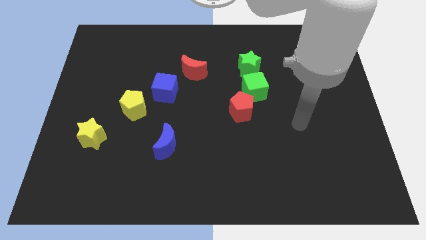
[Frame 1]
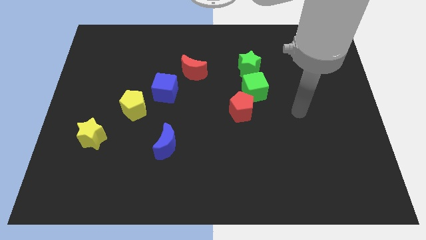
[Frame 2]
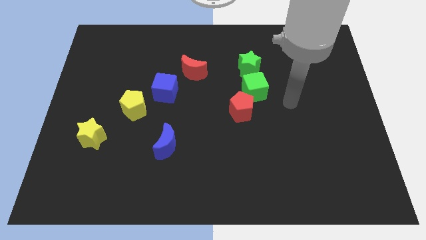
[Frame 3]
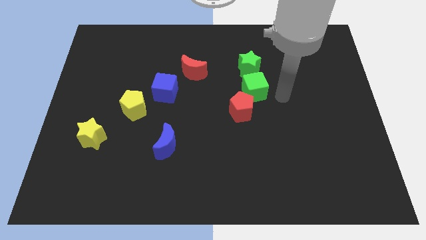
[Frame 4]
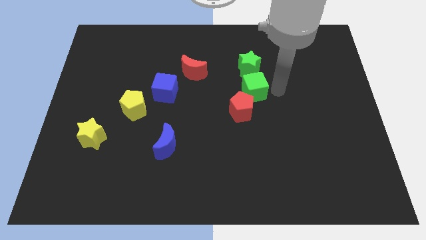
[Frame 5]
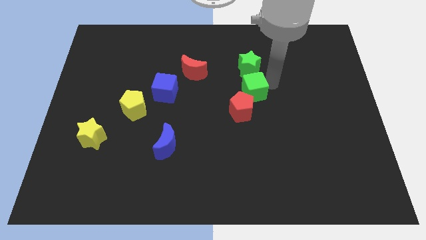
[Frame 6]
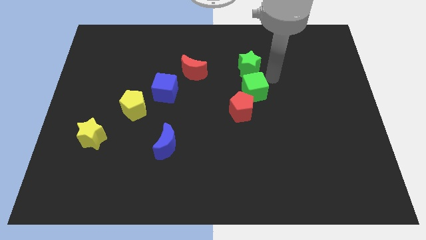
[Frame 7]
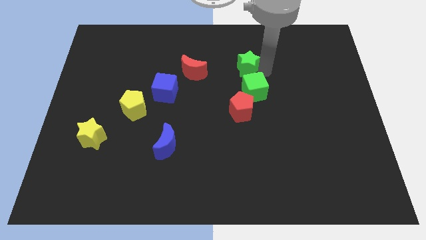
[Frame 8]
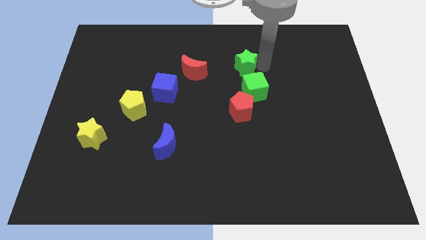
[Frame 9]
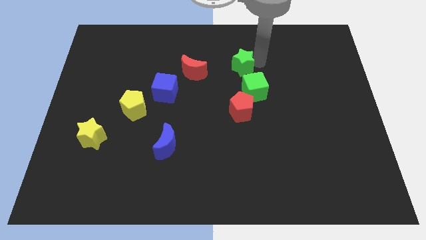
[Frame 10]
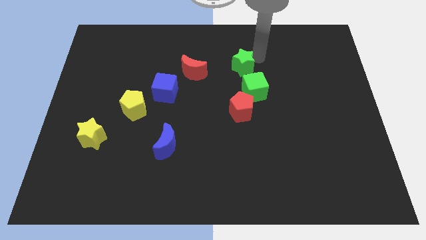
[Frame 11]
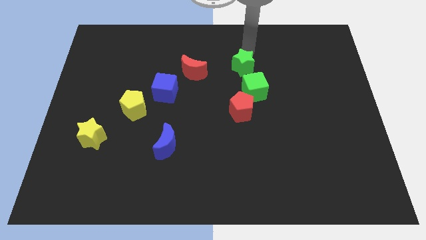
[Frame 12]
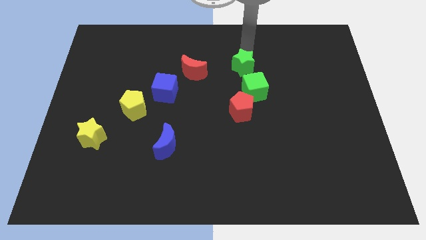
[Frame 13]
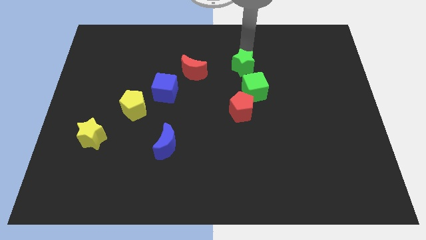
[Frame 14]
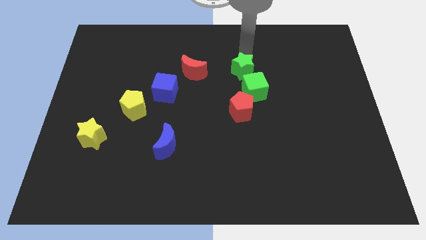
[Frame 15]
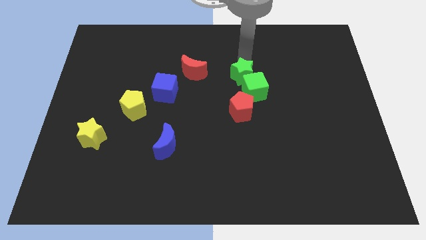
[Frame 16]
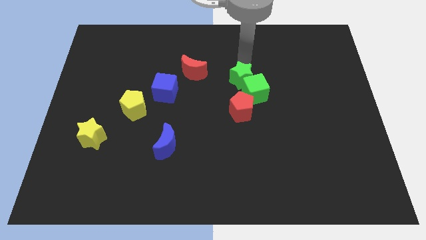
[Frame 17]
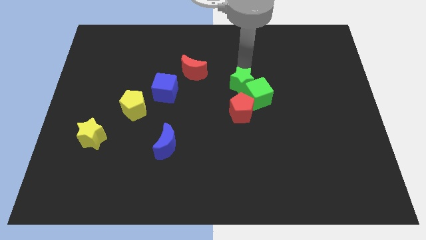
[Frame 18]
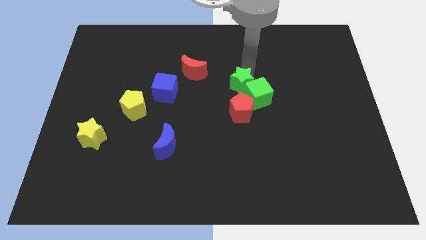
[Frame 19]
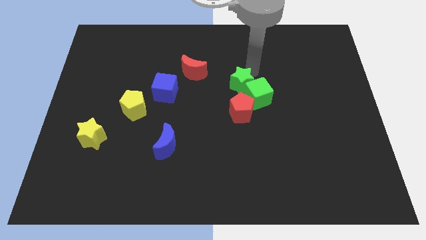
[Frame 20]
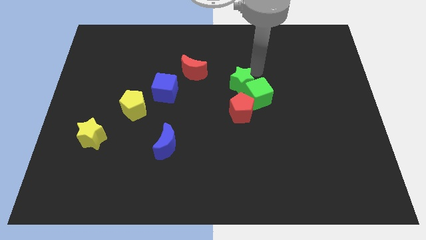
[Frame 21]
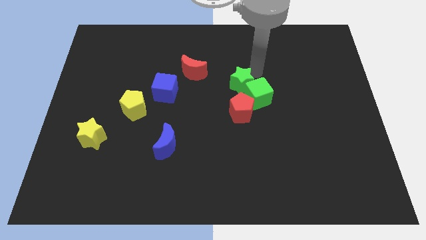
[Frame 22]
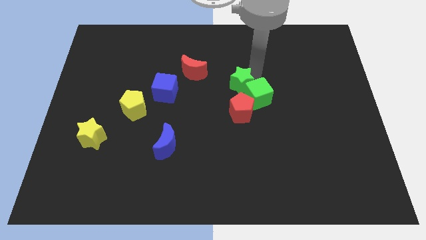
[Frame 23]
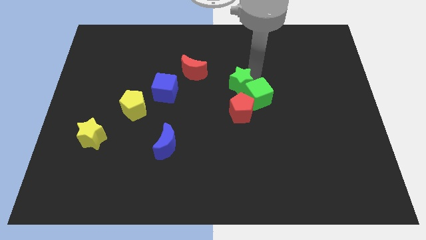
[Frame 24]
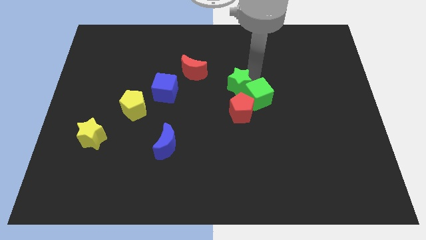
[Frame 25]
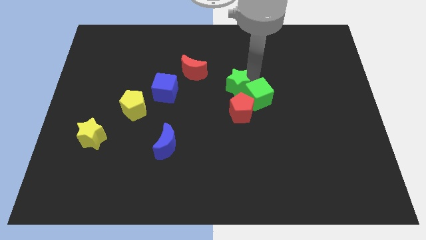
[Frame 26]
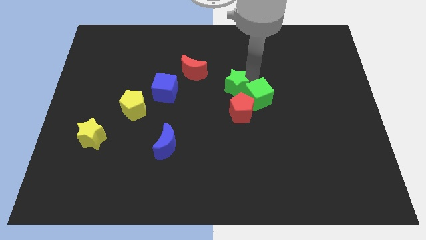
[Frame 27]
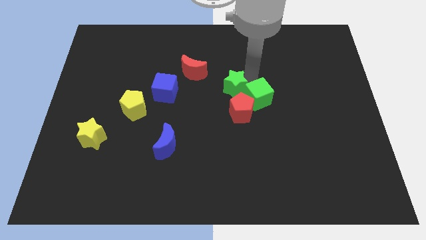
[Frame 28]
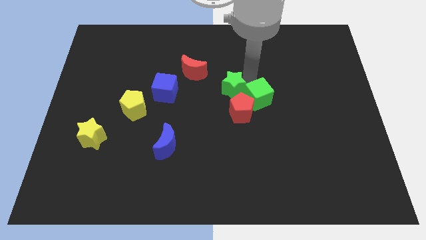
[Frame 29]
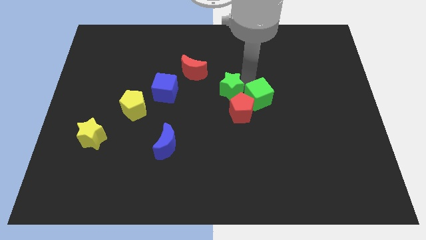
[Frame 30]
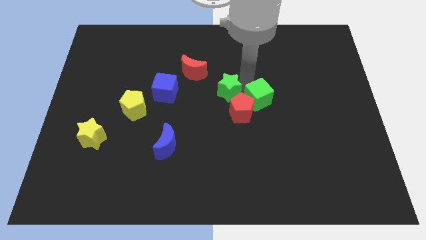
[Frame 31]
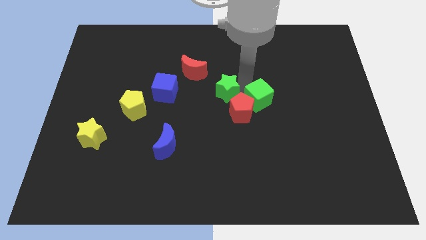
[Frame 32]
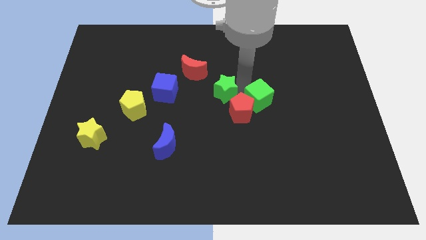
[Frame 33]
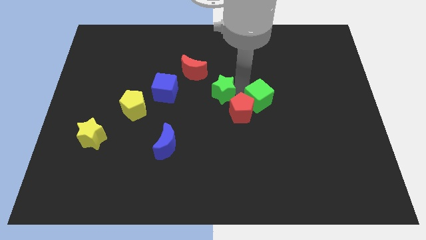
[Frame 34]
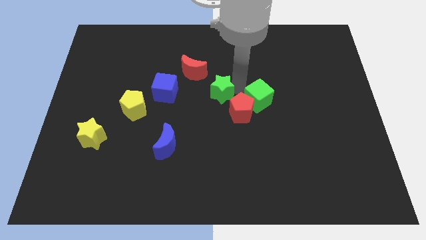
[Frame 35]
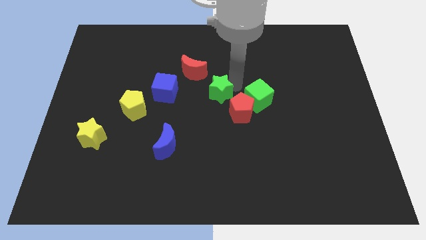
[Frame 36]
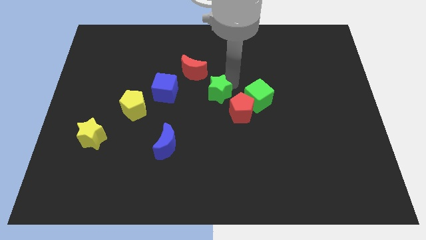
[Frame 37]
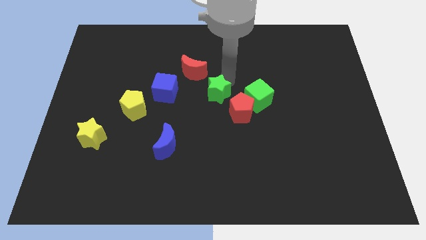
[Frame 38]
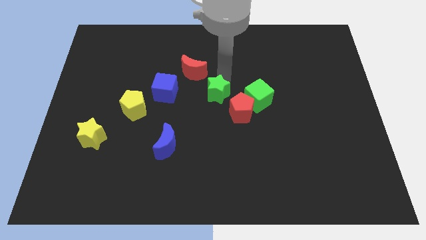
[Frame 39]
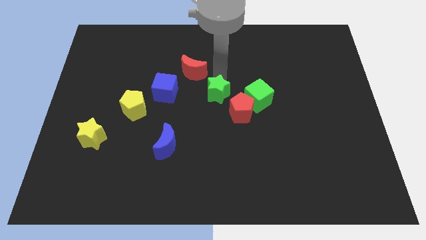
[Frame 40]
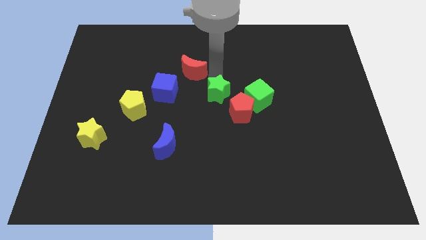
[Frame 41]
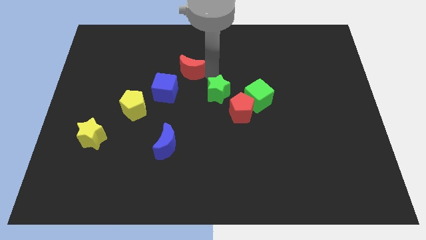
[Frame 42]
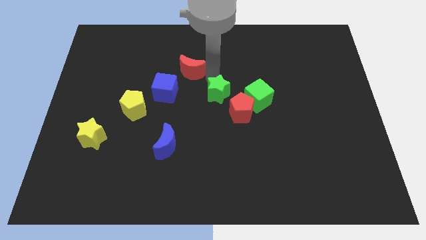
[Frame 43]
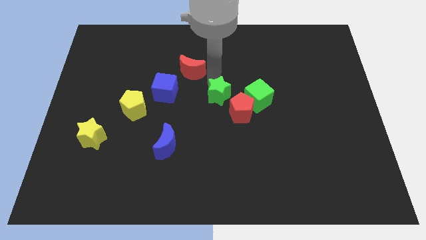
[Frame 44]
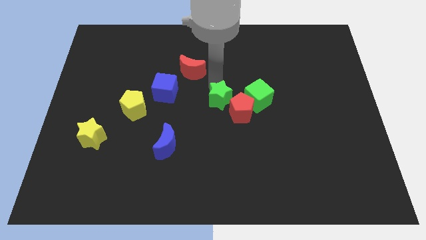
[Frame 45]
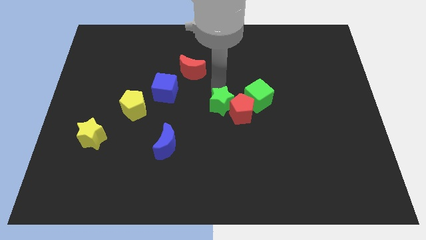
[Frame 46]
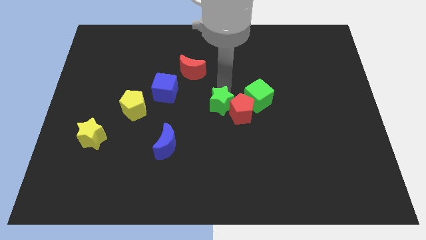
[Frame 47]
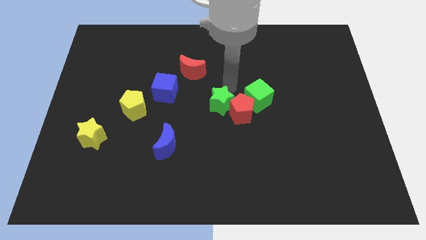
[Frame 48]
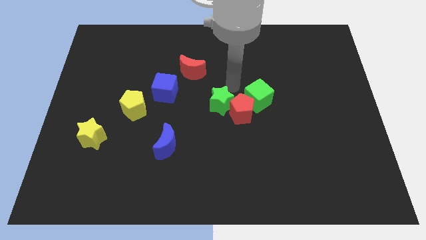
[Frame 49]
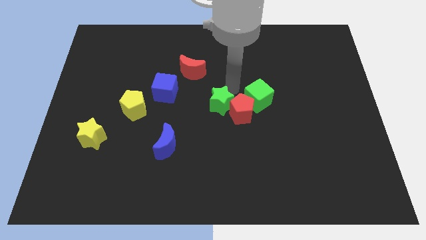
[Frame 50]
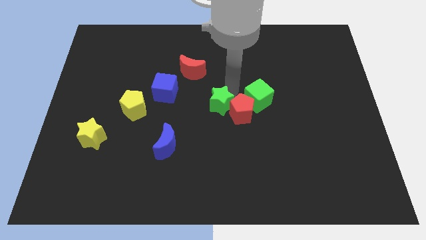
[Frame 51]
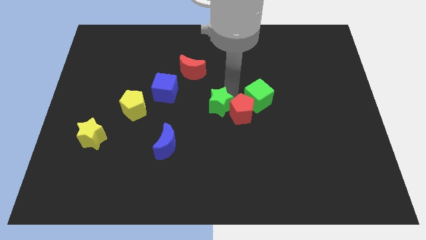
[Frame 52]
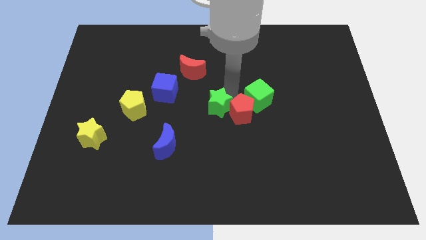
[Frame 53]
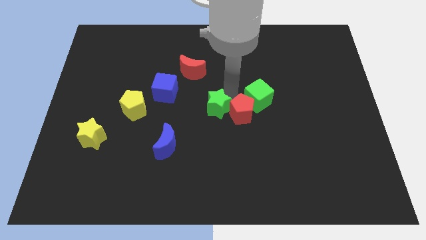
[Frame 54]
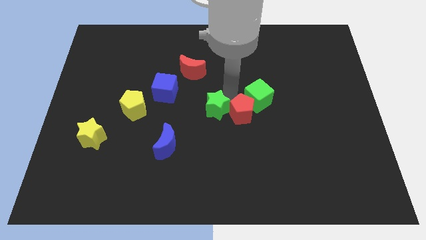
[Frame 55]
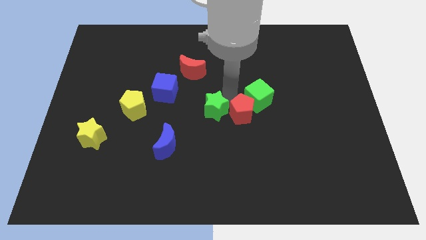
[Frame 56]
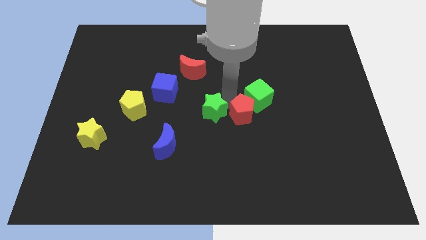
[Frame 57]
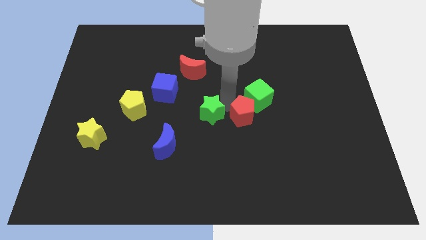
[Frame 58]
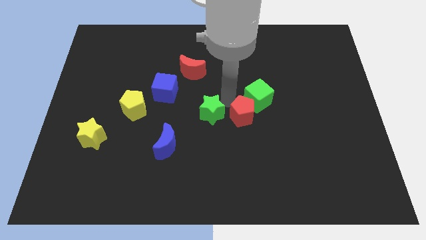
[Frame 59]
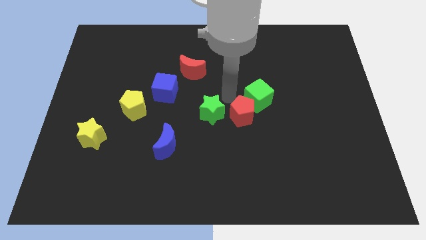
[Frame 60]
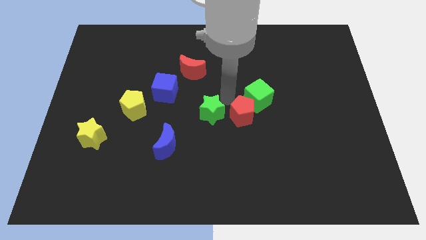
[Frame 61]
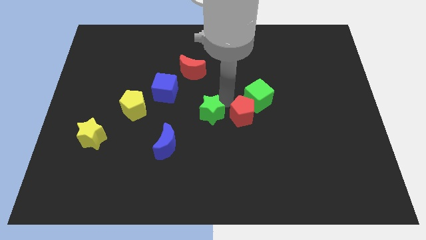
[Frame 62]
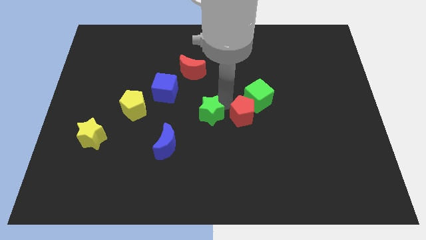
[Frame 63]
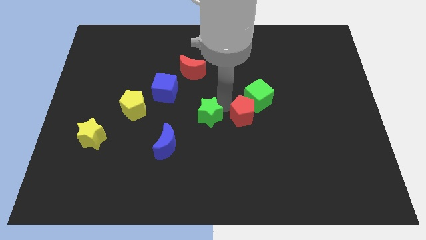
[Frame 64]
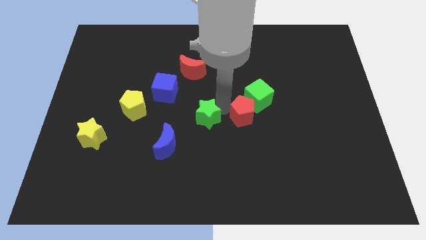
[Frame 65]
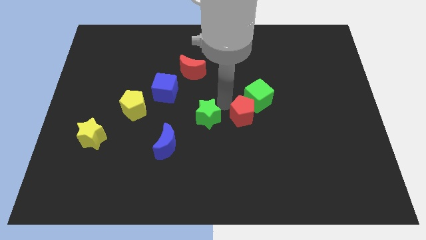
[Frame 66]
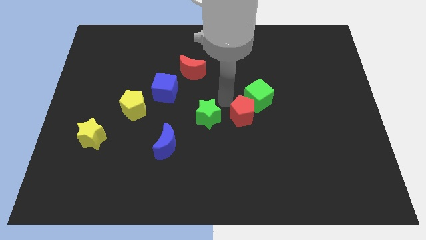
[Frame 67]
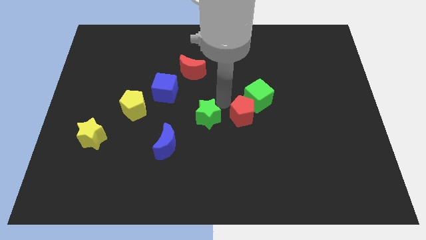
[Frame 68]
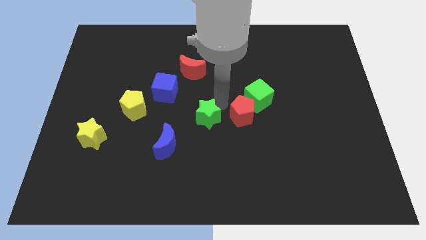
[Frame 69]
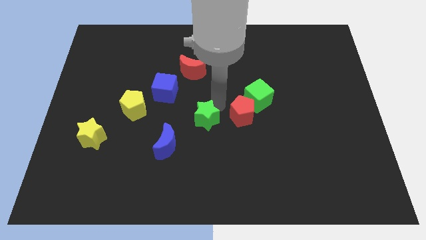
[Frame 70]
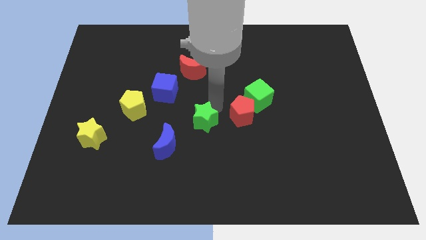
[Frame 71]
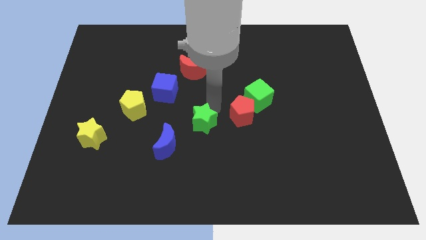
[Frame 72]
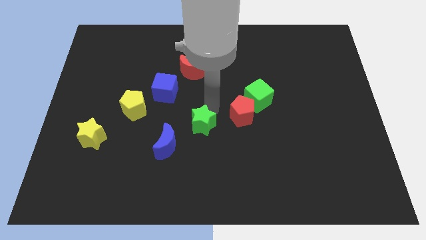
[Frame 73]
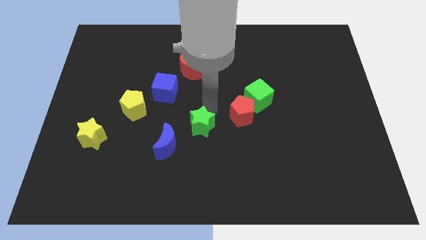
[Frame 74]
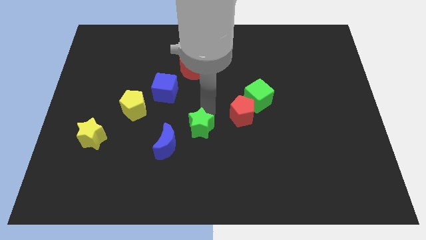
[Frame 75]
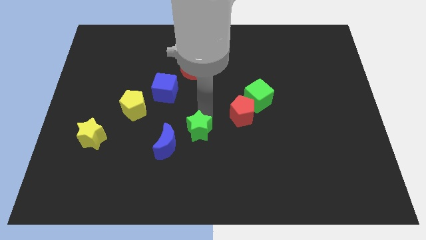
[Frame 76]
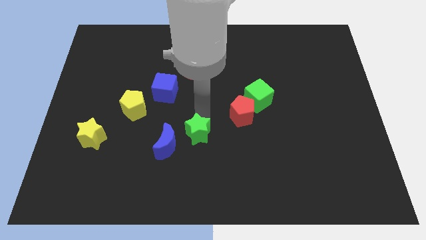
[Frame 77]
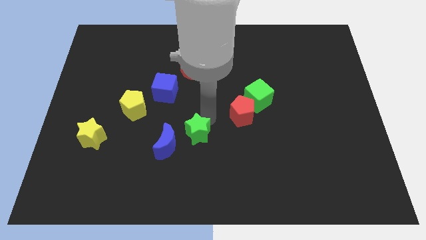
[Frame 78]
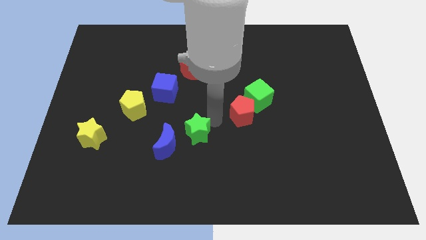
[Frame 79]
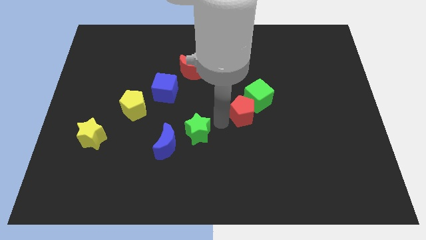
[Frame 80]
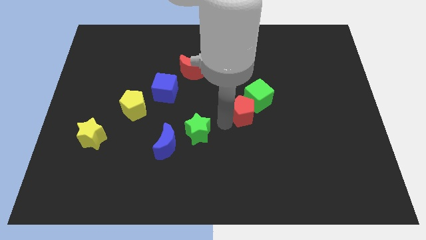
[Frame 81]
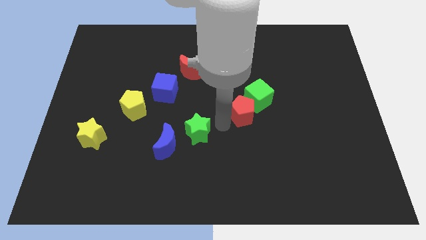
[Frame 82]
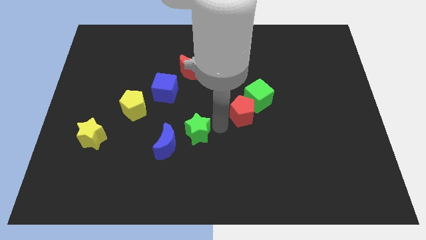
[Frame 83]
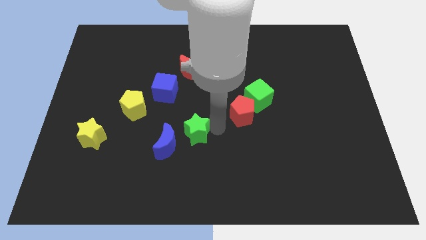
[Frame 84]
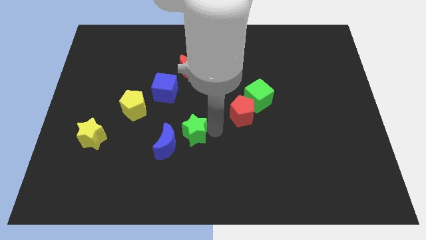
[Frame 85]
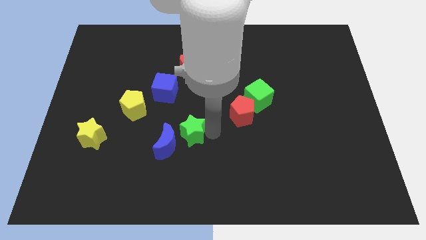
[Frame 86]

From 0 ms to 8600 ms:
slide the green star towards the blue moon
